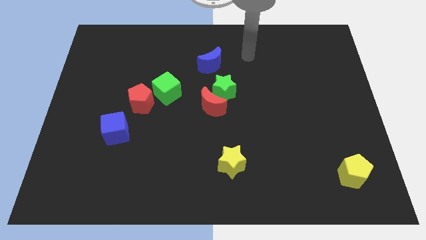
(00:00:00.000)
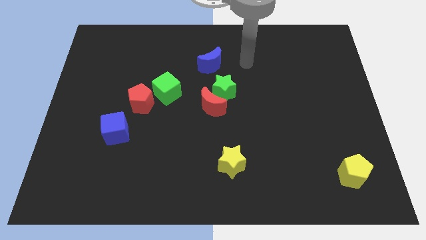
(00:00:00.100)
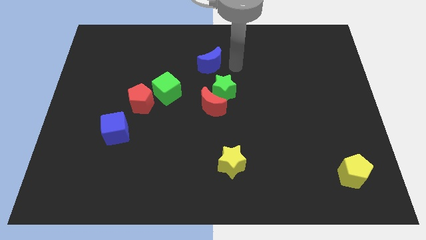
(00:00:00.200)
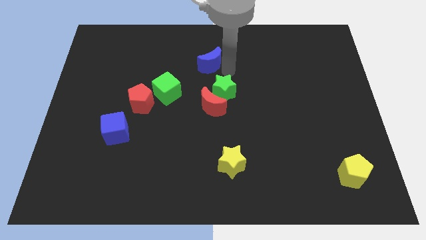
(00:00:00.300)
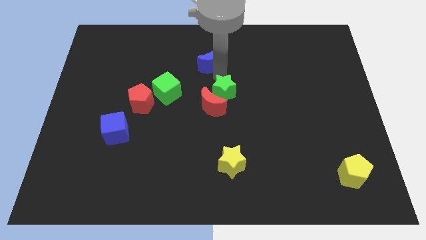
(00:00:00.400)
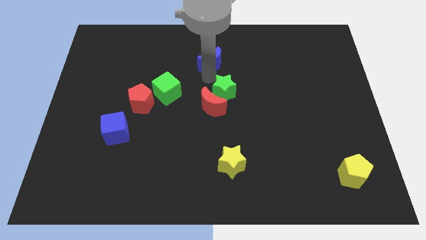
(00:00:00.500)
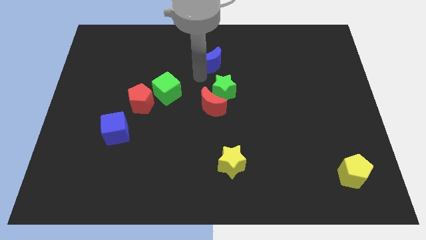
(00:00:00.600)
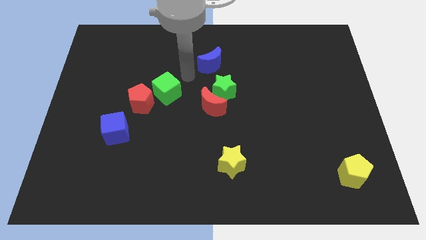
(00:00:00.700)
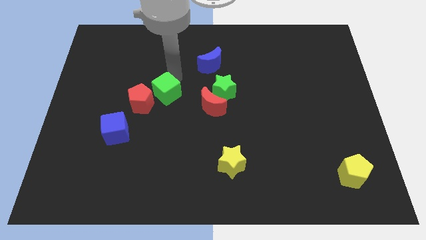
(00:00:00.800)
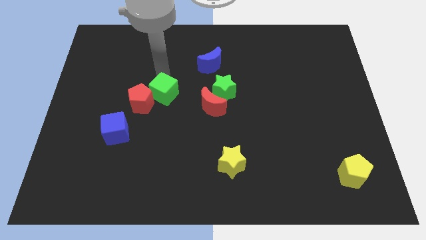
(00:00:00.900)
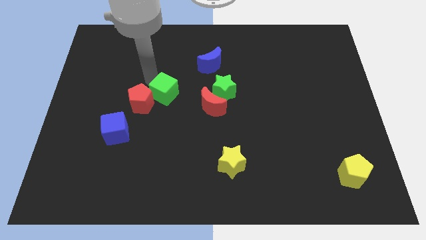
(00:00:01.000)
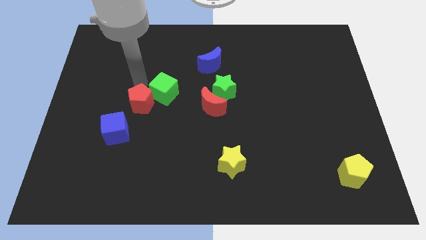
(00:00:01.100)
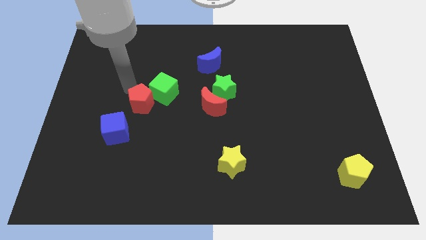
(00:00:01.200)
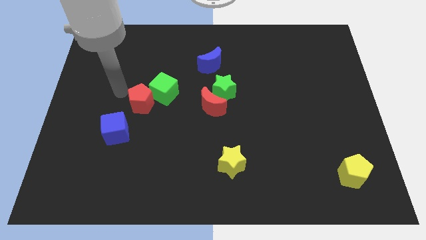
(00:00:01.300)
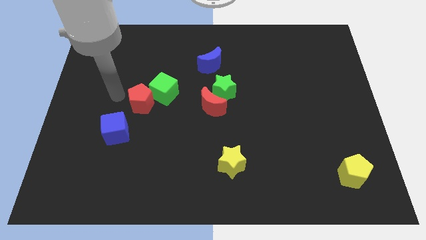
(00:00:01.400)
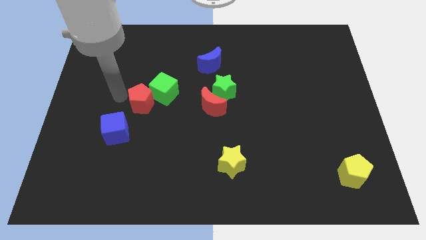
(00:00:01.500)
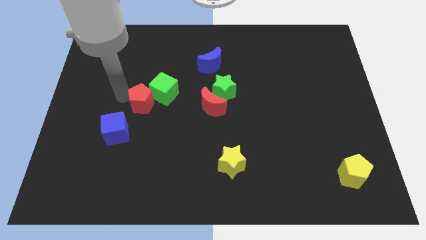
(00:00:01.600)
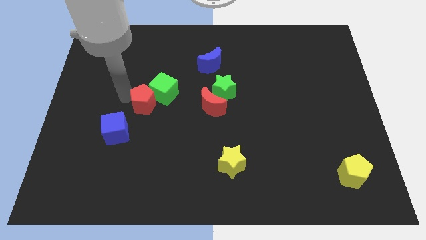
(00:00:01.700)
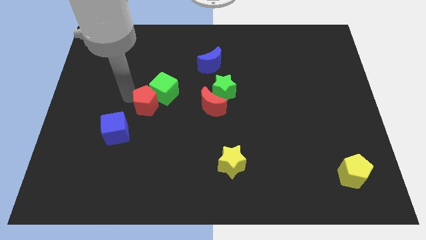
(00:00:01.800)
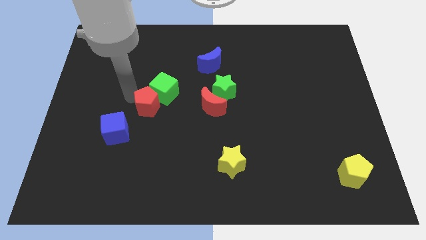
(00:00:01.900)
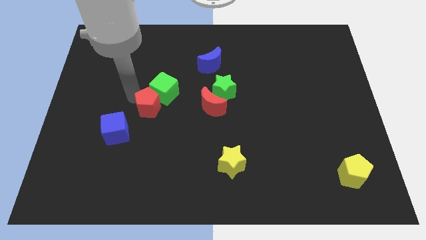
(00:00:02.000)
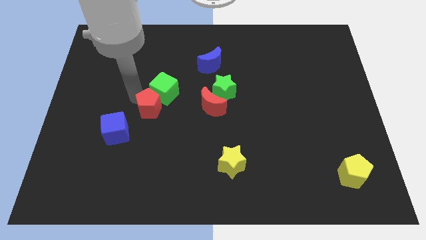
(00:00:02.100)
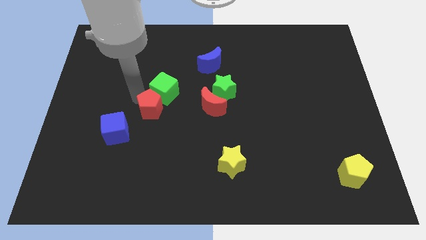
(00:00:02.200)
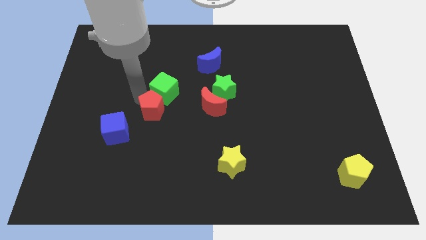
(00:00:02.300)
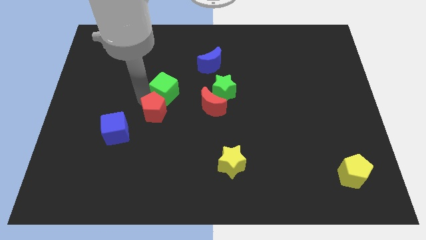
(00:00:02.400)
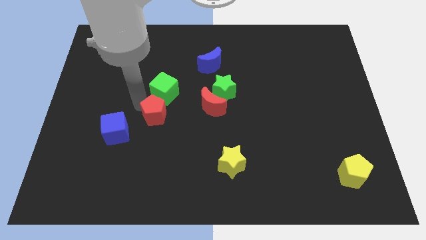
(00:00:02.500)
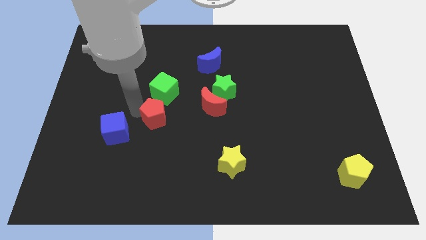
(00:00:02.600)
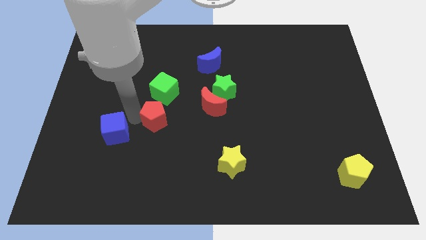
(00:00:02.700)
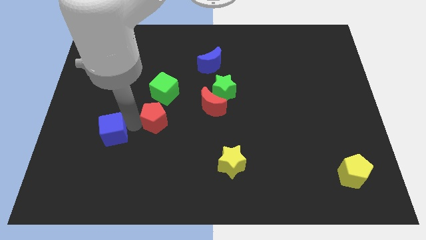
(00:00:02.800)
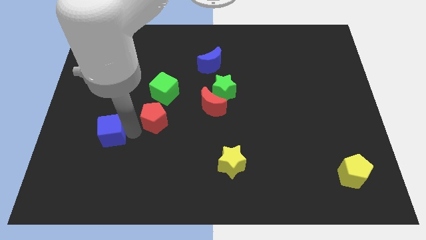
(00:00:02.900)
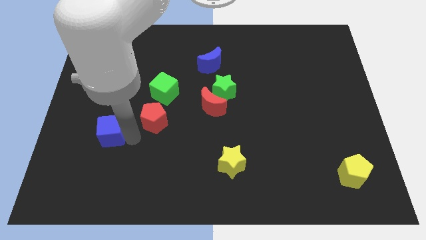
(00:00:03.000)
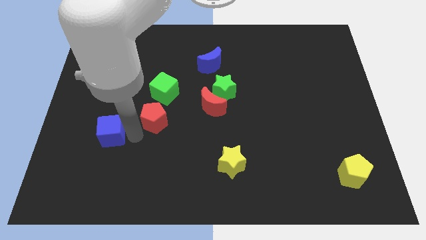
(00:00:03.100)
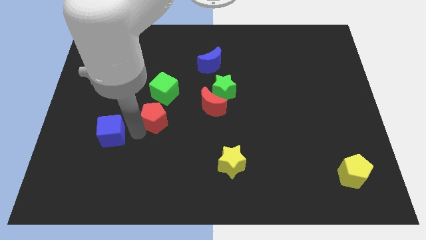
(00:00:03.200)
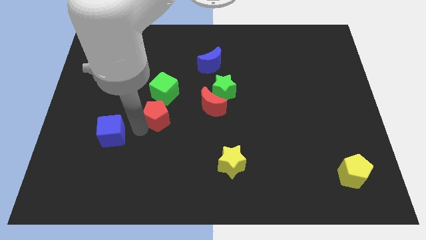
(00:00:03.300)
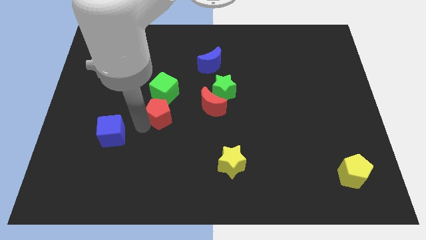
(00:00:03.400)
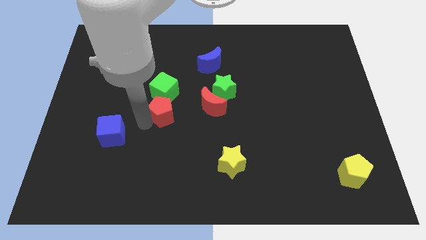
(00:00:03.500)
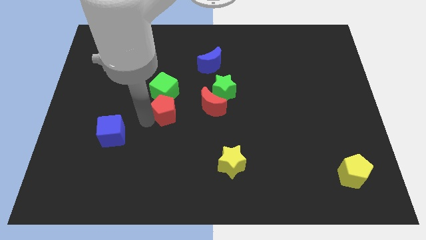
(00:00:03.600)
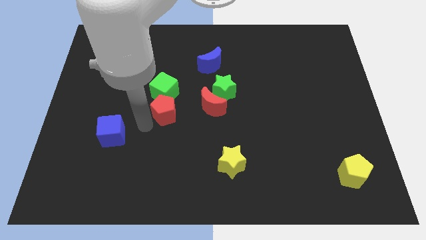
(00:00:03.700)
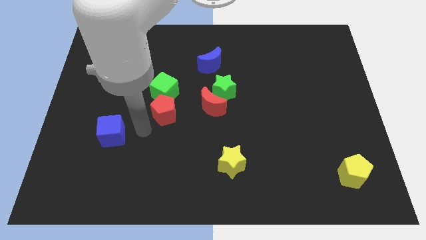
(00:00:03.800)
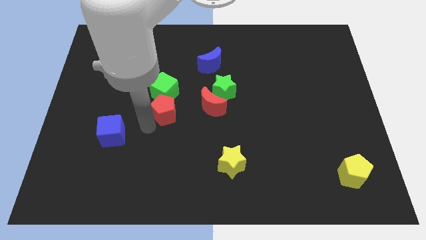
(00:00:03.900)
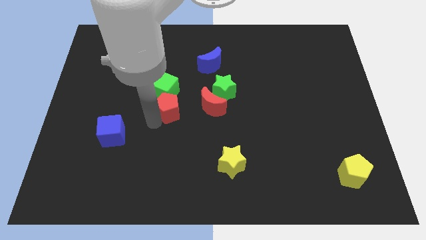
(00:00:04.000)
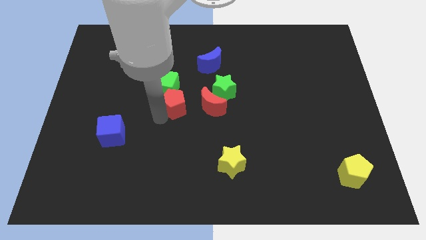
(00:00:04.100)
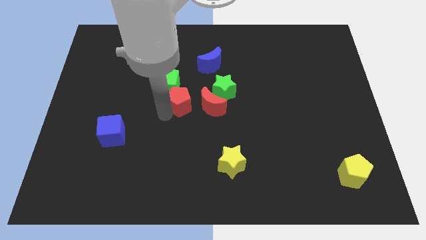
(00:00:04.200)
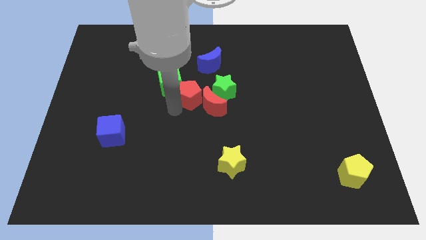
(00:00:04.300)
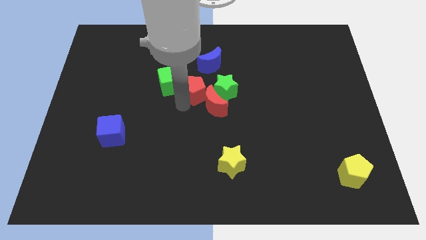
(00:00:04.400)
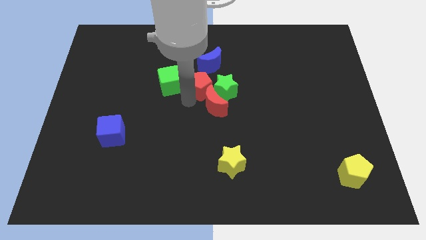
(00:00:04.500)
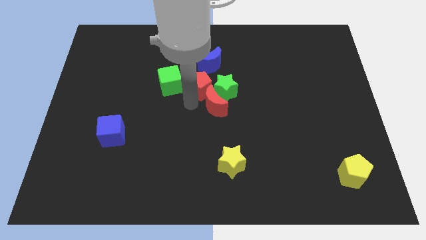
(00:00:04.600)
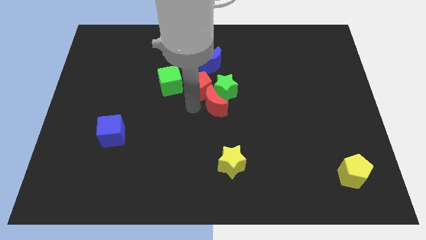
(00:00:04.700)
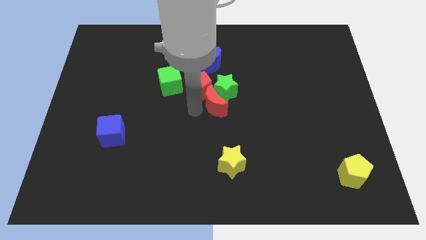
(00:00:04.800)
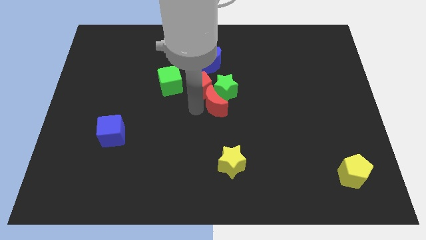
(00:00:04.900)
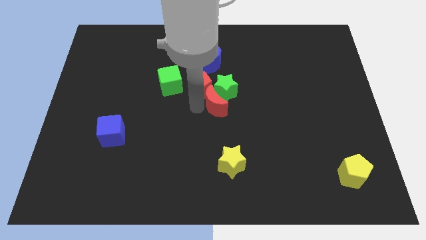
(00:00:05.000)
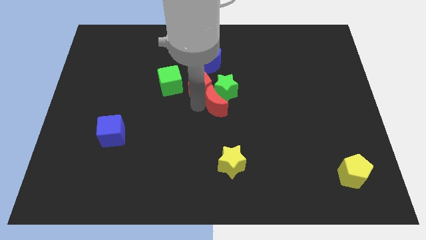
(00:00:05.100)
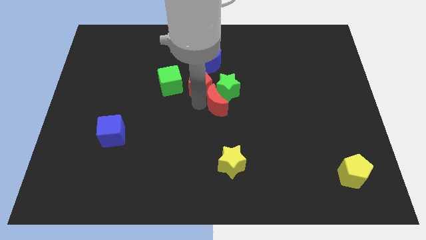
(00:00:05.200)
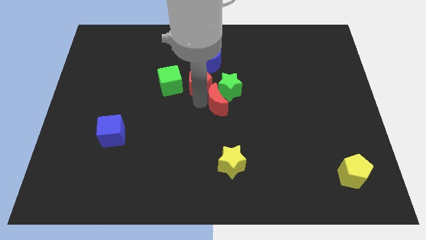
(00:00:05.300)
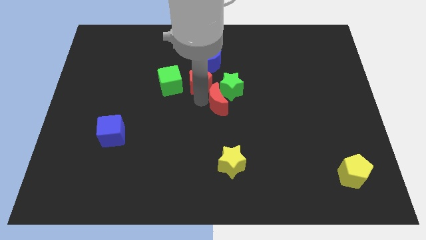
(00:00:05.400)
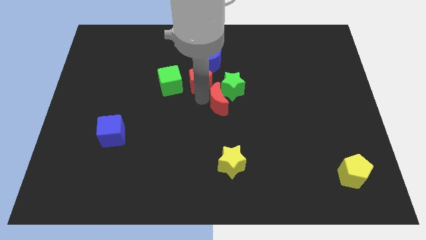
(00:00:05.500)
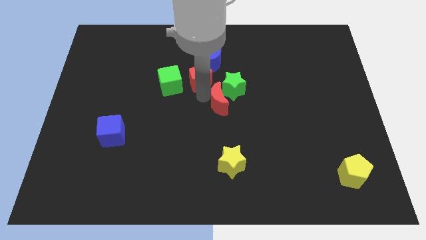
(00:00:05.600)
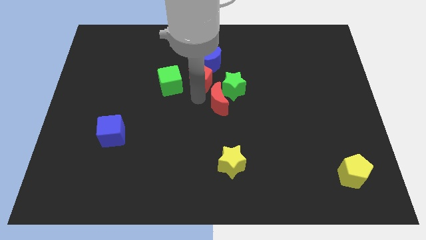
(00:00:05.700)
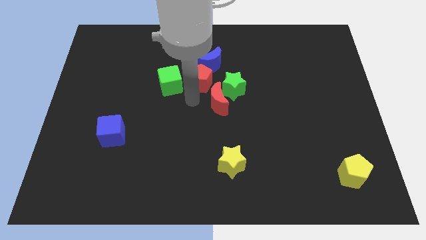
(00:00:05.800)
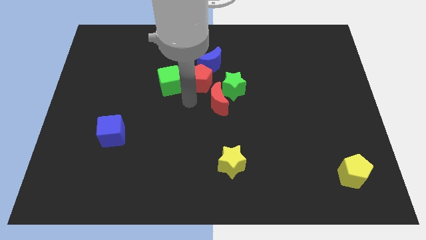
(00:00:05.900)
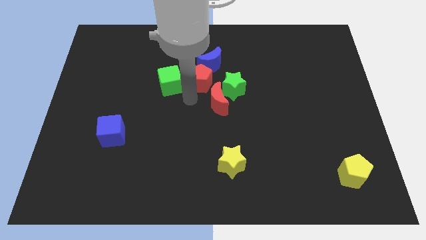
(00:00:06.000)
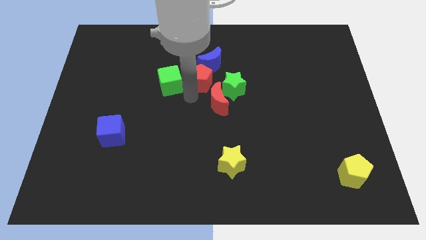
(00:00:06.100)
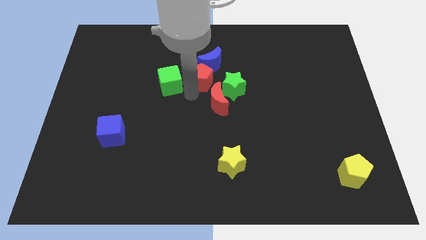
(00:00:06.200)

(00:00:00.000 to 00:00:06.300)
put the red pentagon towards the blue moon

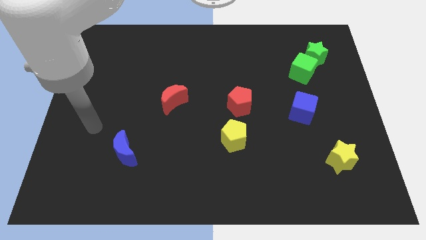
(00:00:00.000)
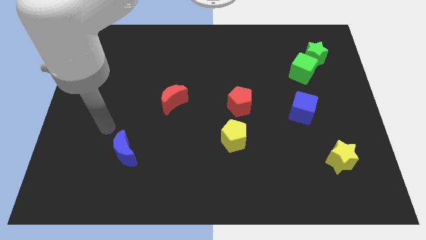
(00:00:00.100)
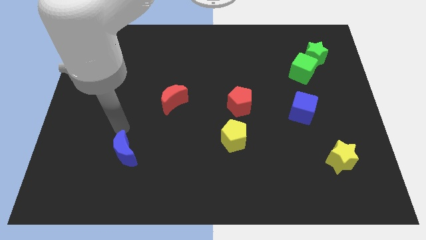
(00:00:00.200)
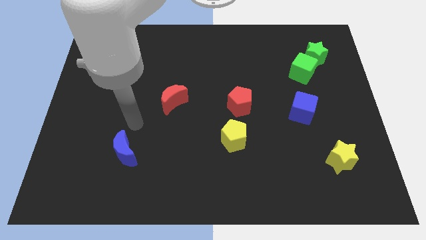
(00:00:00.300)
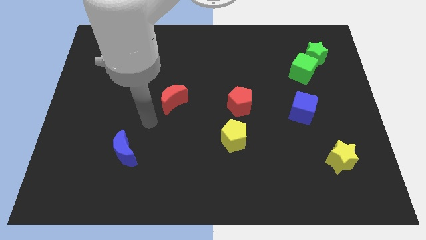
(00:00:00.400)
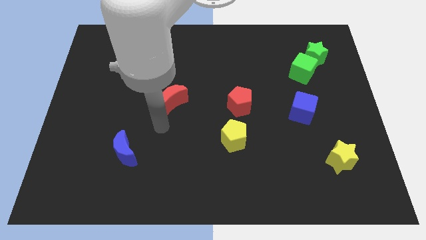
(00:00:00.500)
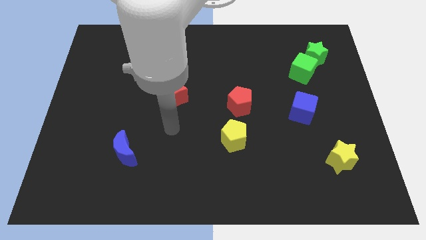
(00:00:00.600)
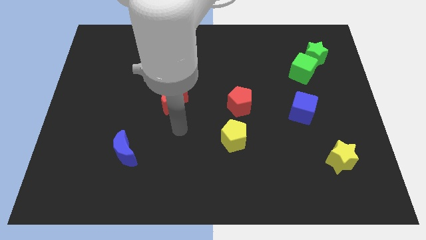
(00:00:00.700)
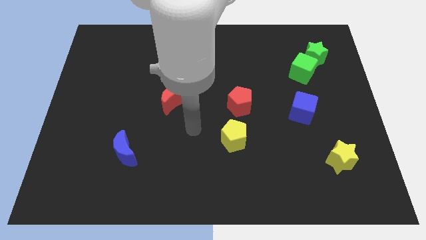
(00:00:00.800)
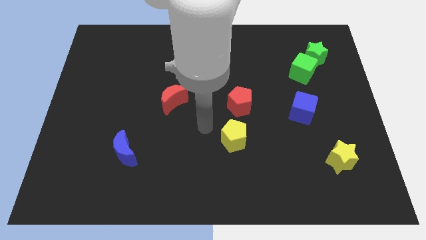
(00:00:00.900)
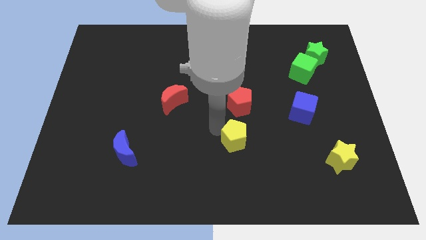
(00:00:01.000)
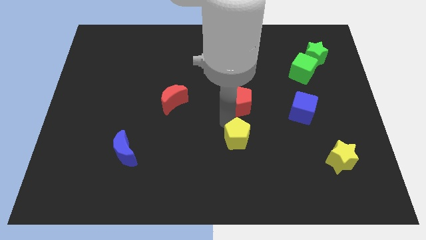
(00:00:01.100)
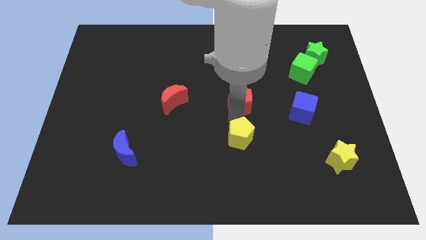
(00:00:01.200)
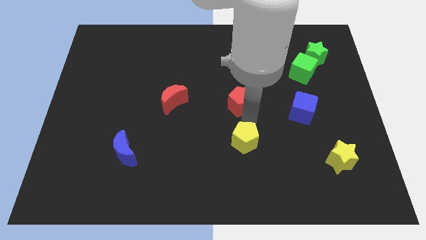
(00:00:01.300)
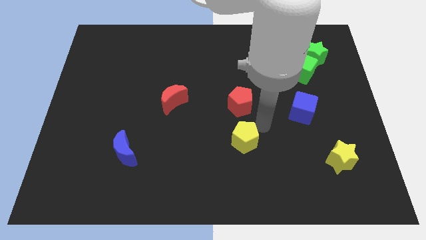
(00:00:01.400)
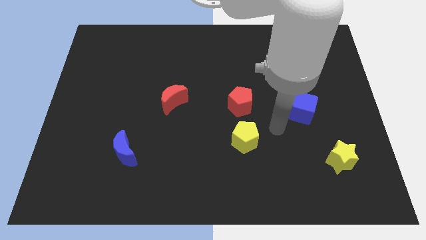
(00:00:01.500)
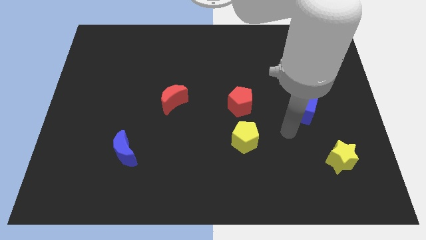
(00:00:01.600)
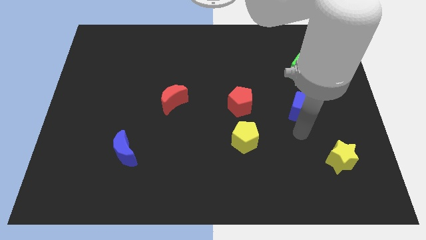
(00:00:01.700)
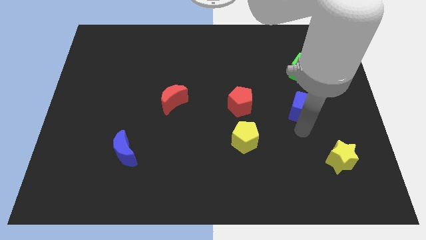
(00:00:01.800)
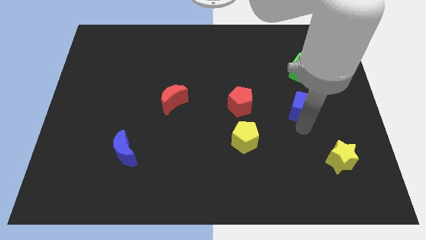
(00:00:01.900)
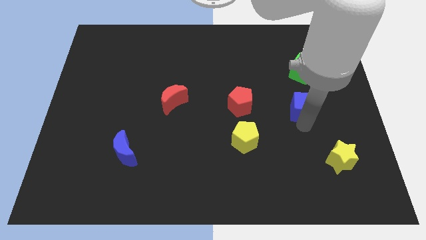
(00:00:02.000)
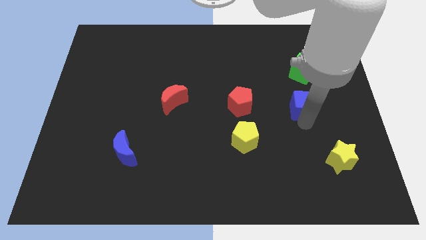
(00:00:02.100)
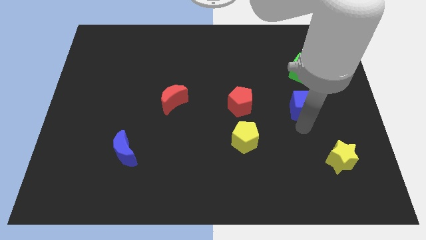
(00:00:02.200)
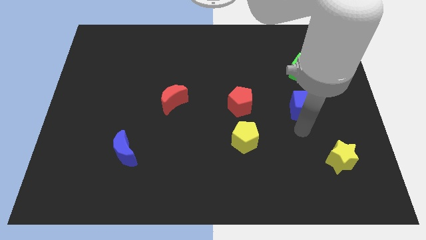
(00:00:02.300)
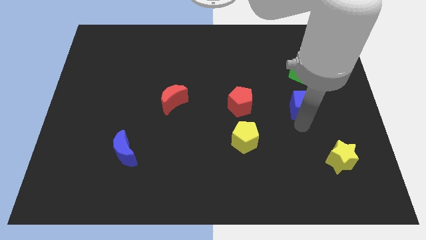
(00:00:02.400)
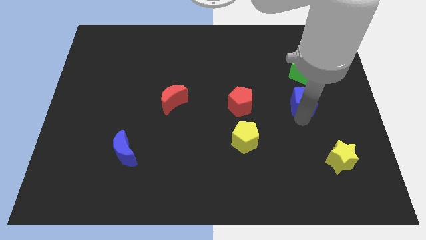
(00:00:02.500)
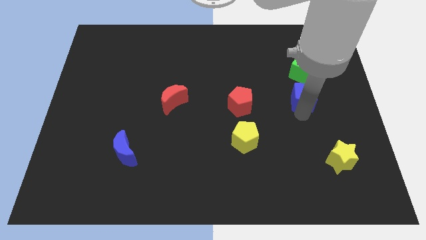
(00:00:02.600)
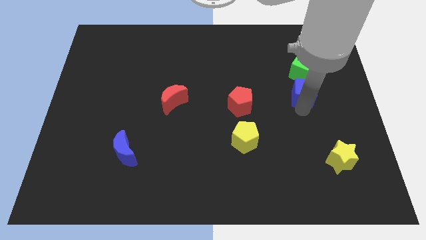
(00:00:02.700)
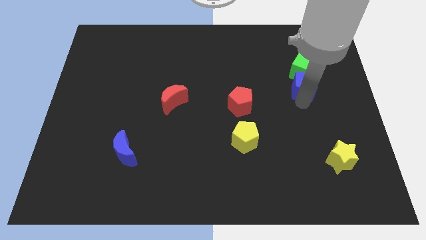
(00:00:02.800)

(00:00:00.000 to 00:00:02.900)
slide the blue cube close to the green cube
